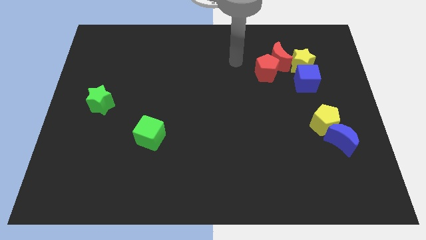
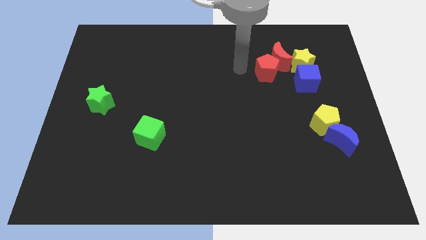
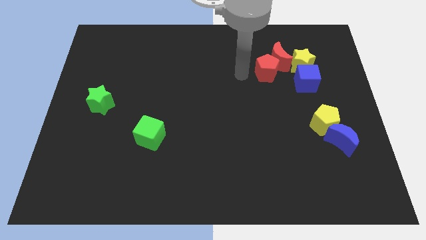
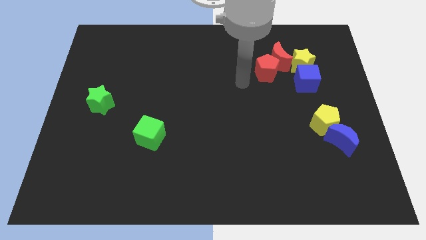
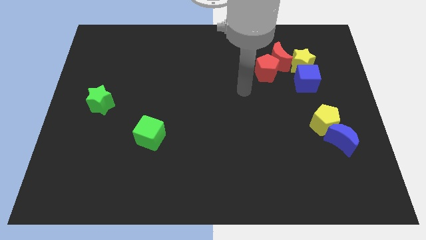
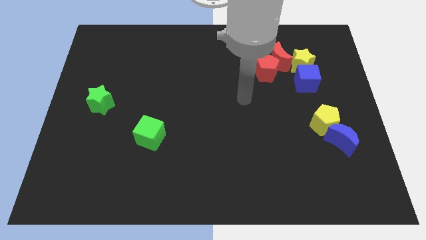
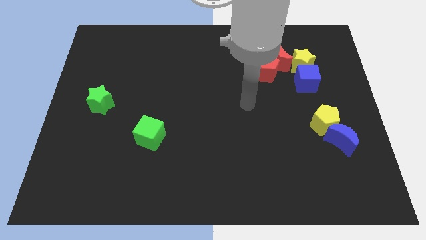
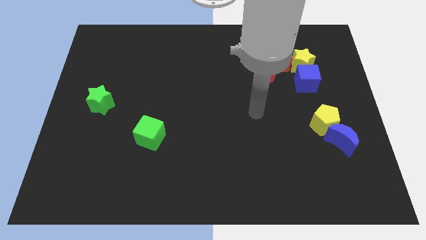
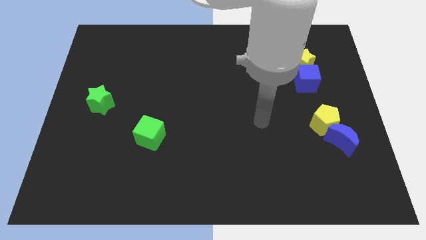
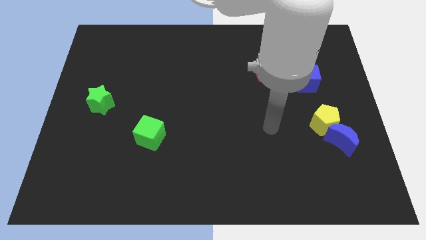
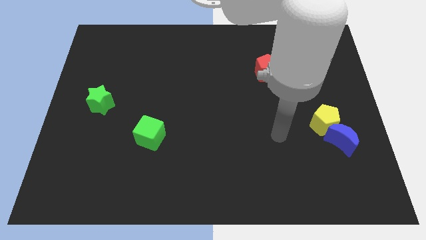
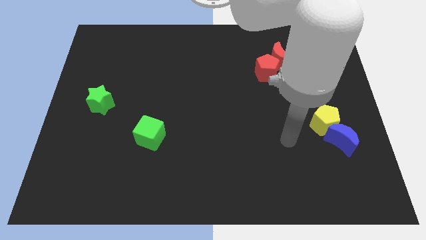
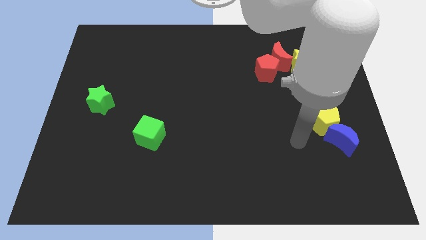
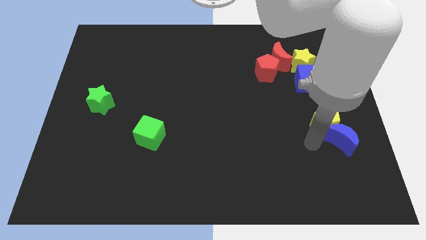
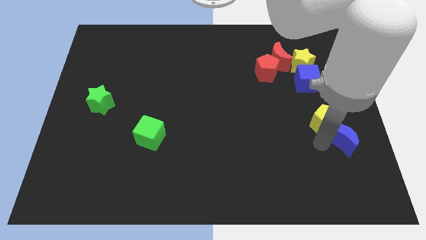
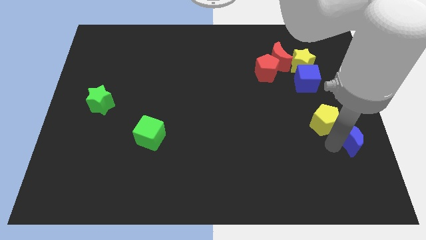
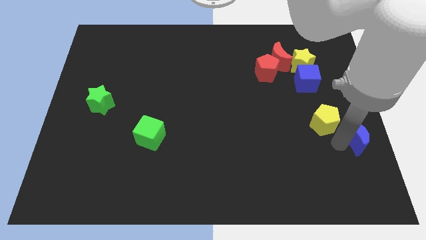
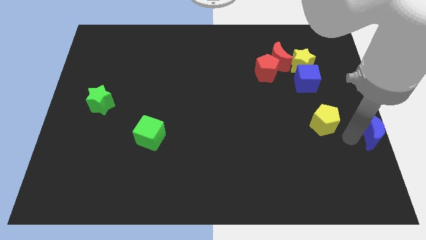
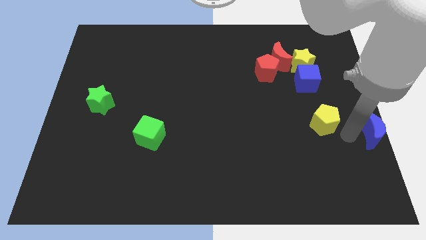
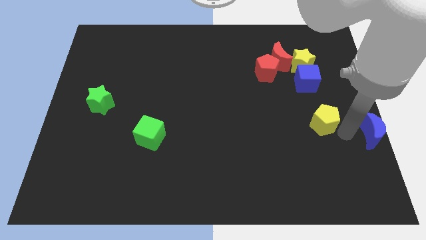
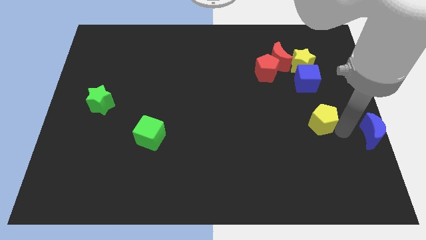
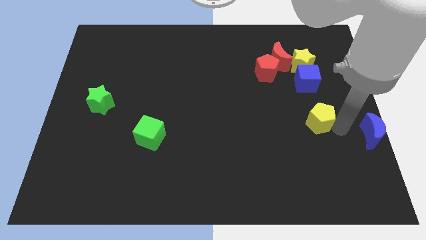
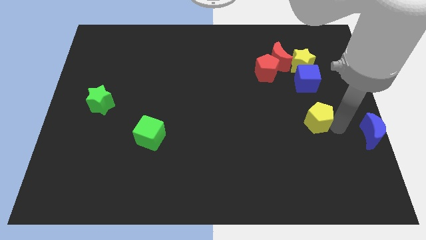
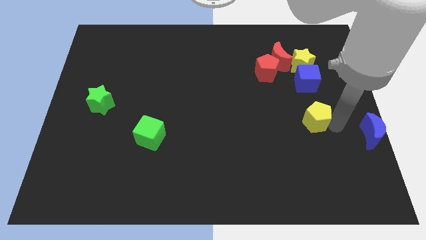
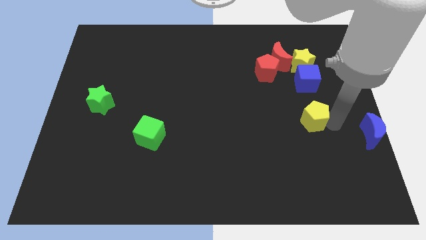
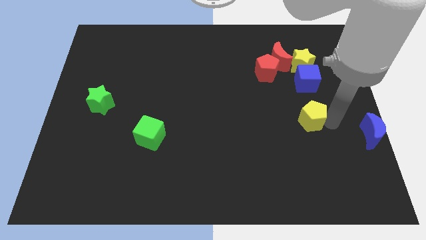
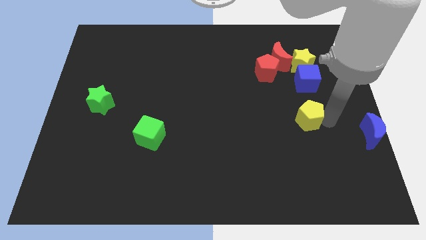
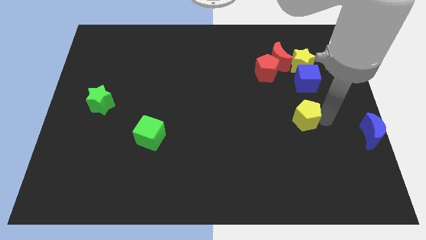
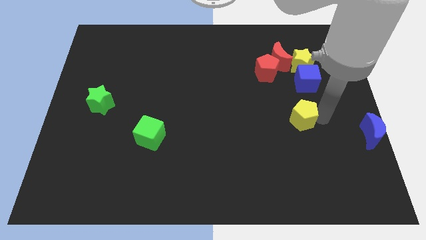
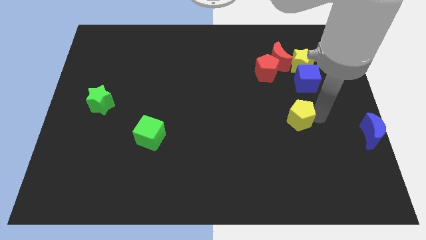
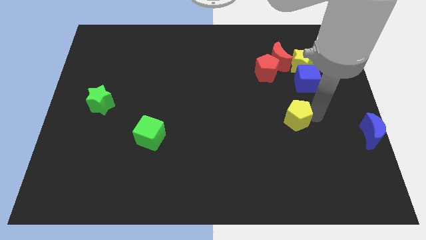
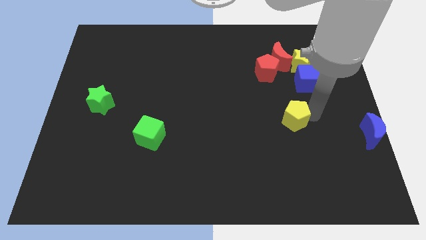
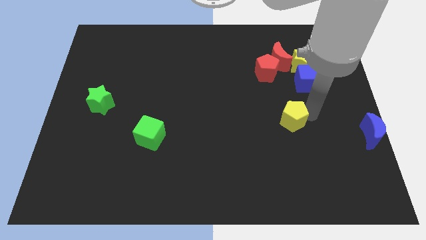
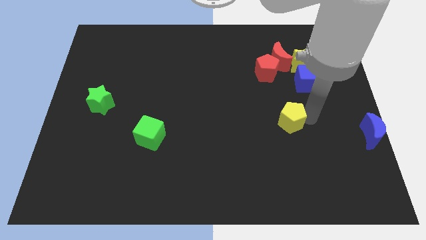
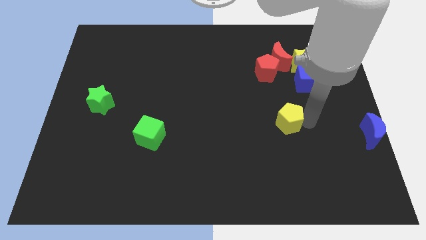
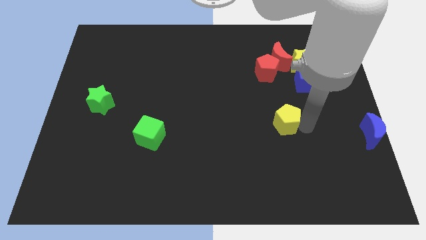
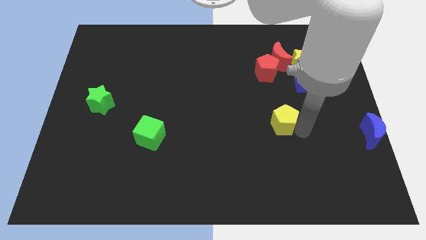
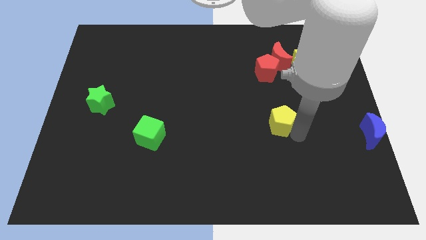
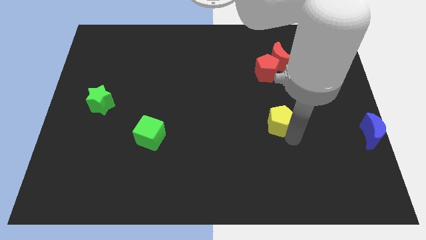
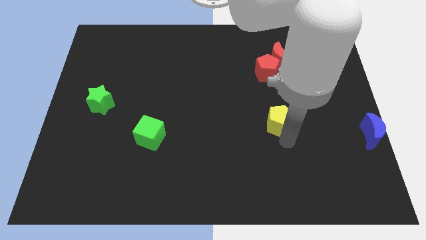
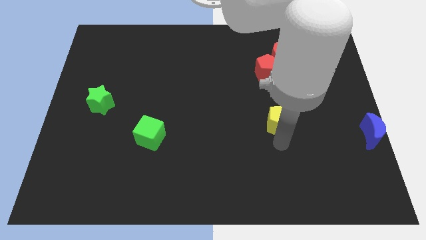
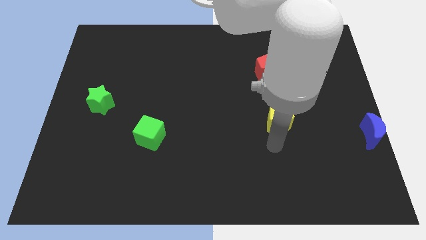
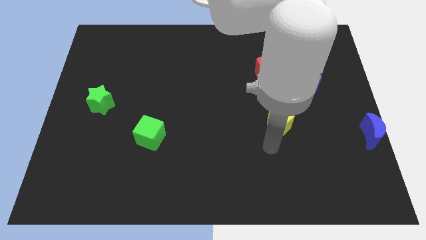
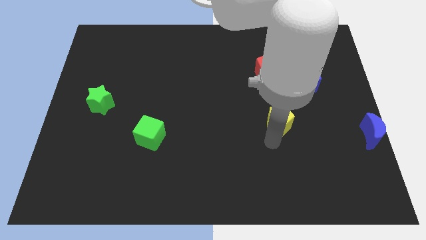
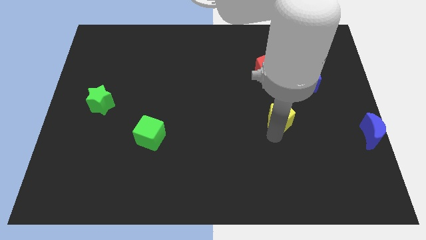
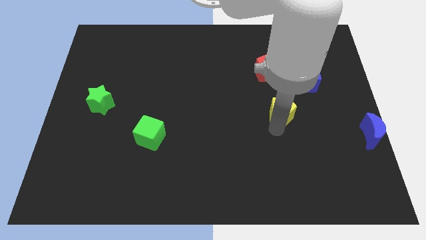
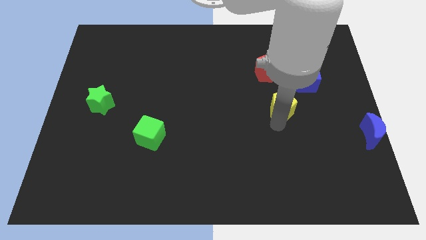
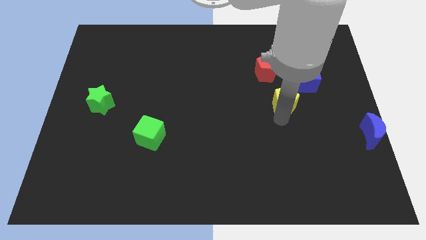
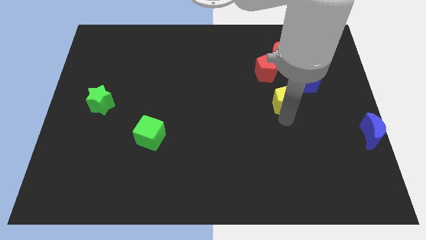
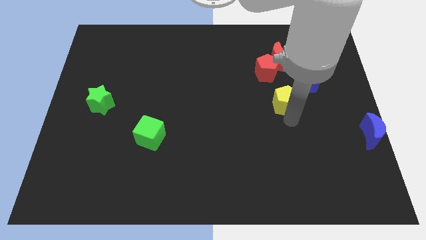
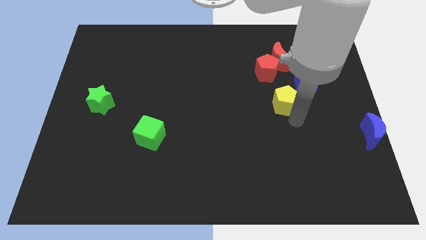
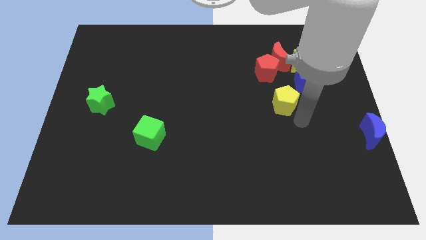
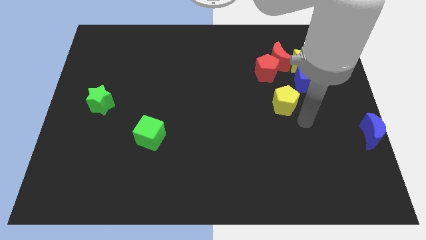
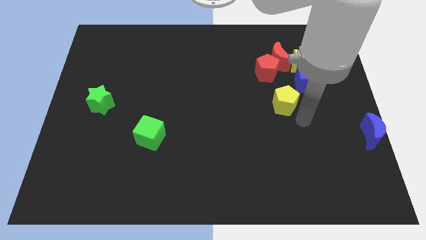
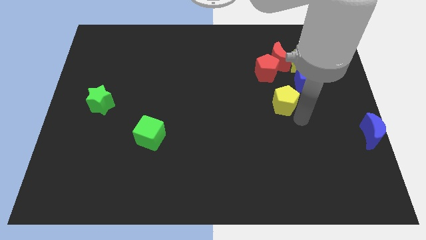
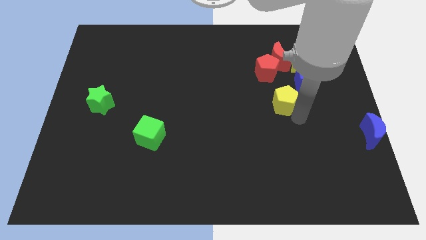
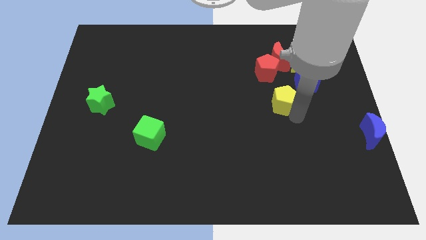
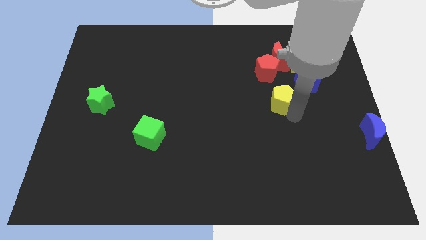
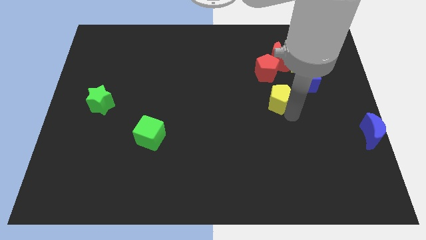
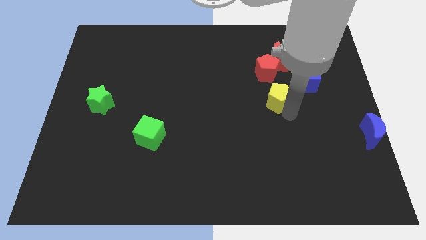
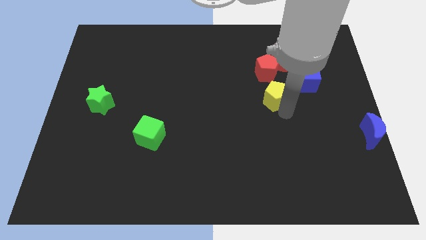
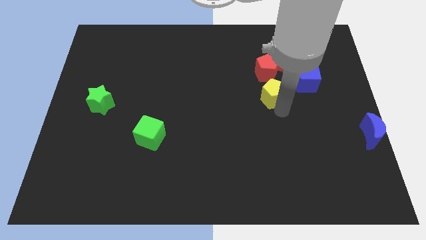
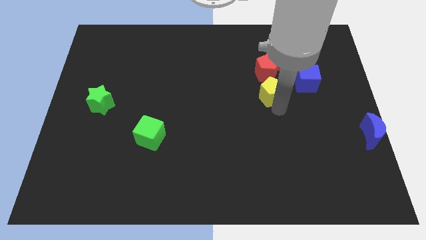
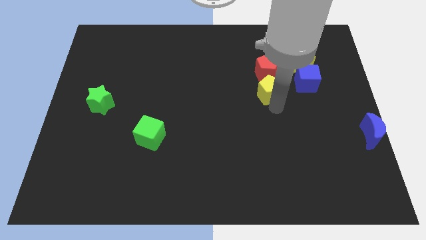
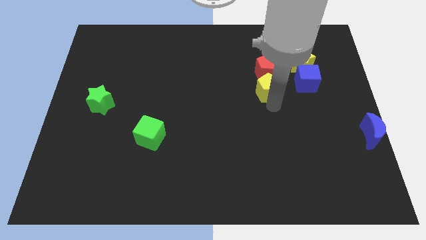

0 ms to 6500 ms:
move the yellow pentagon to the bottom left side of the red moon

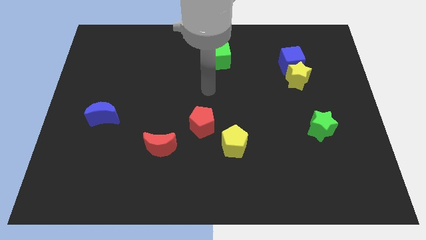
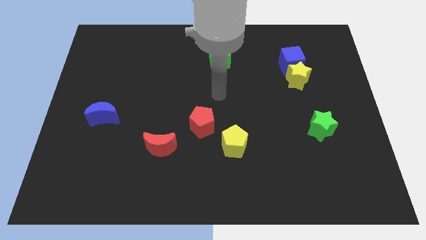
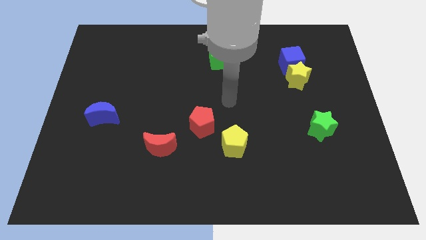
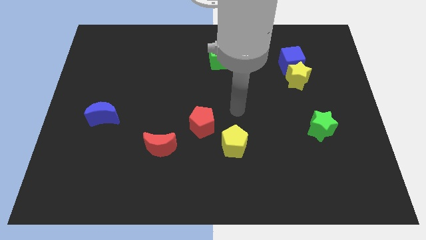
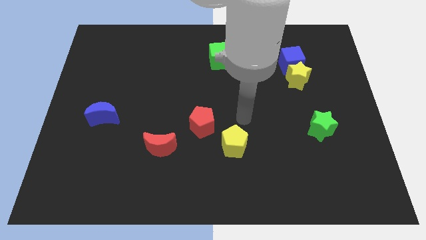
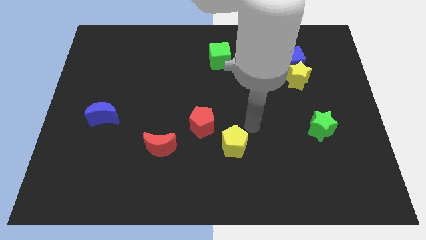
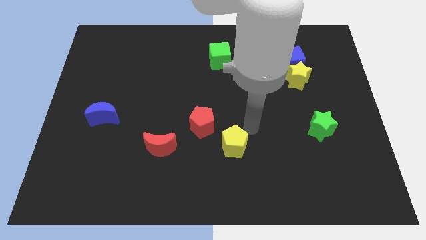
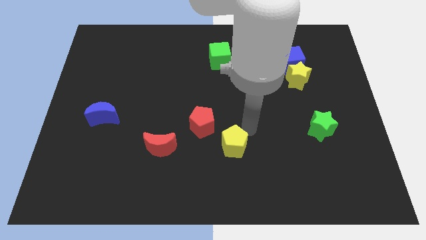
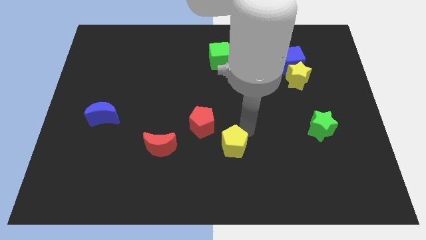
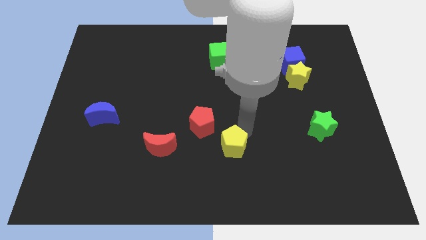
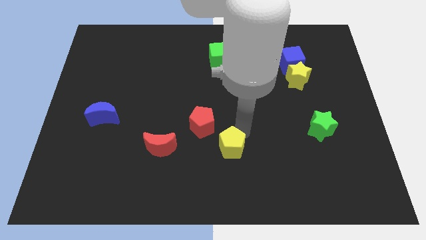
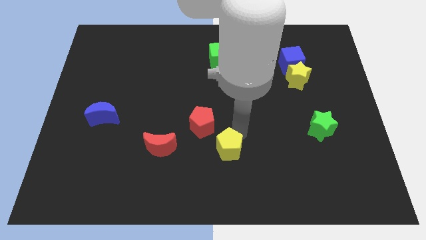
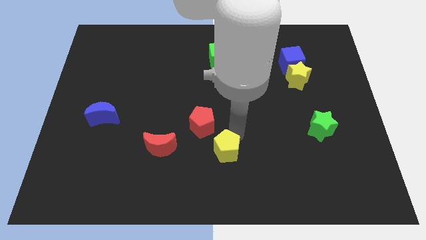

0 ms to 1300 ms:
push the yellow pentagon to the bottom of the red pentagon
